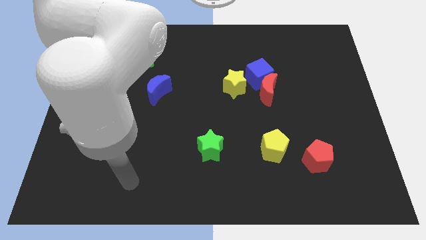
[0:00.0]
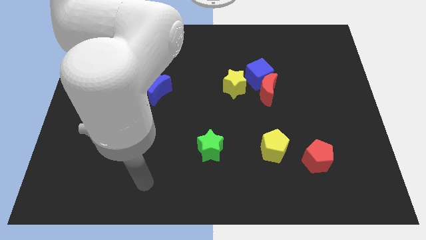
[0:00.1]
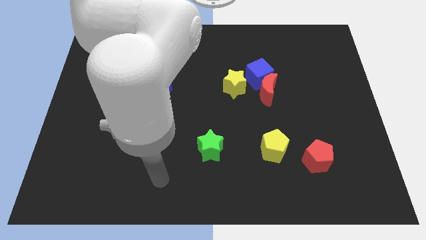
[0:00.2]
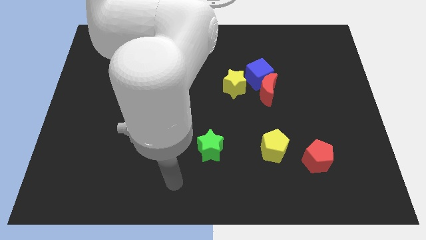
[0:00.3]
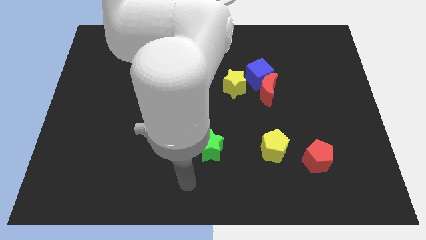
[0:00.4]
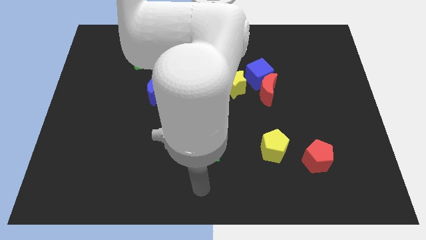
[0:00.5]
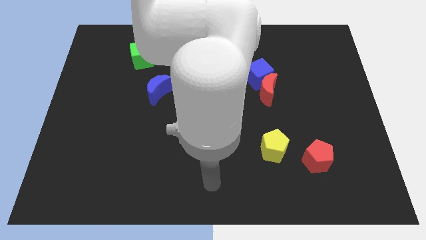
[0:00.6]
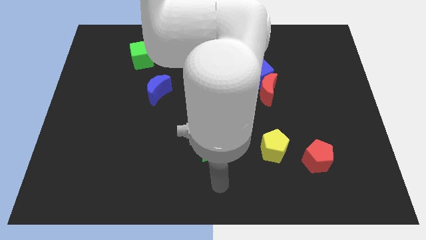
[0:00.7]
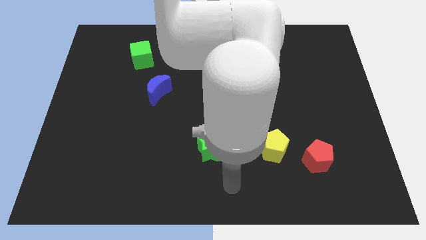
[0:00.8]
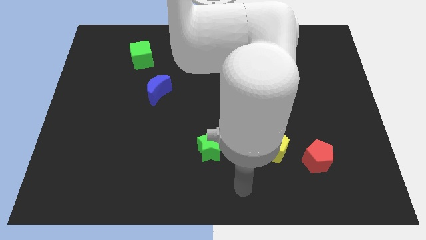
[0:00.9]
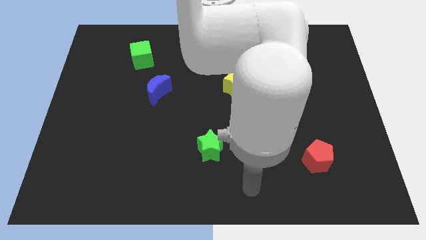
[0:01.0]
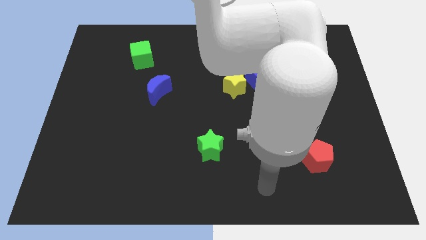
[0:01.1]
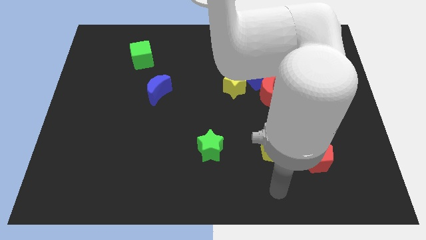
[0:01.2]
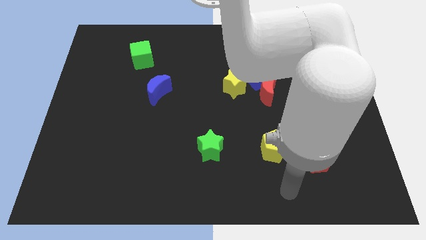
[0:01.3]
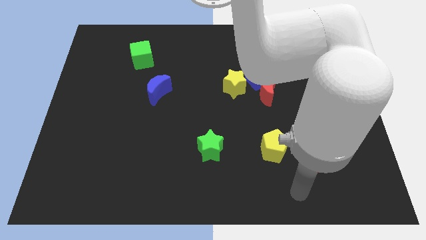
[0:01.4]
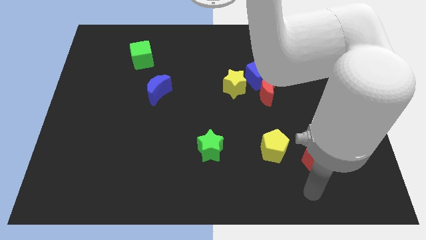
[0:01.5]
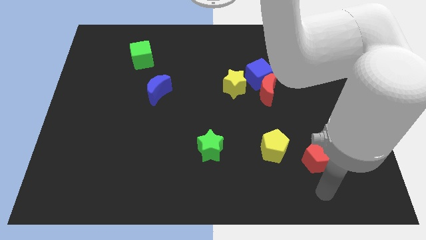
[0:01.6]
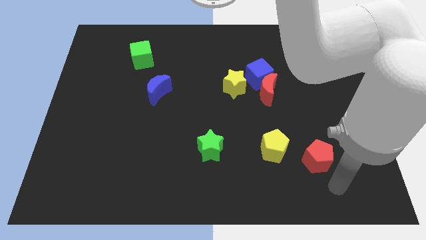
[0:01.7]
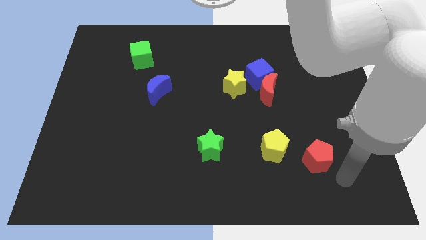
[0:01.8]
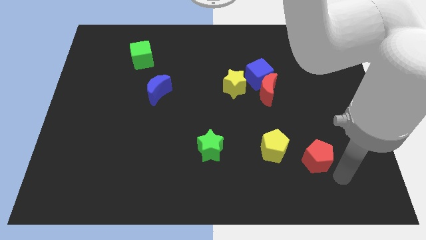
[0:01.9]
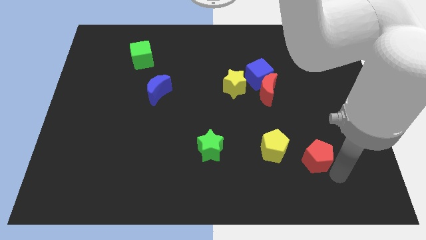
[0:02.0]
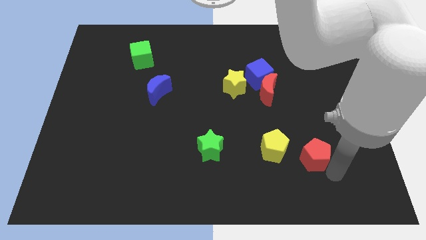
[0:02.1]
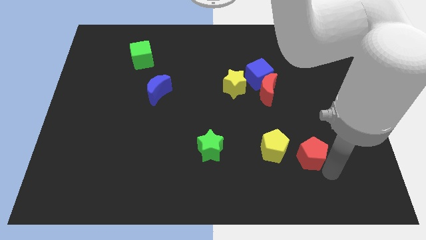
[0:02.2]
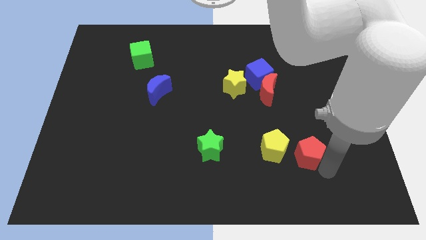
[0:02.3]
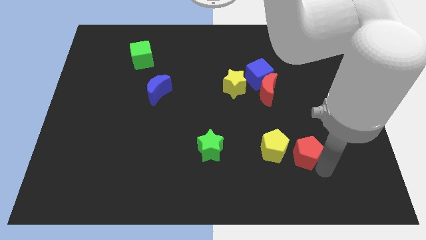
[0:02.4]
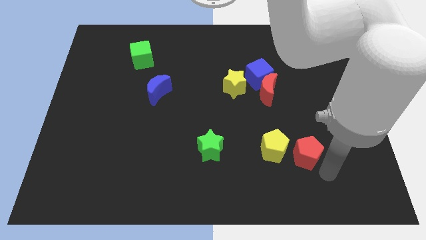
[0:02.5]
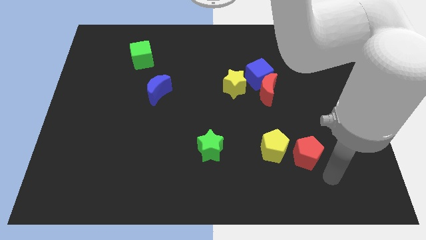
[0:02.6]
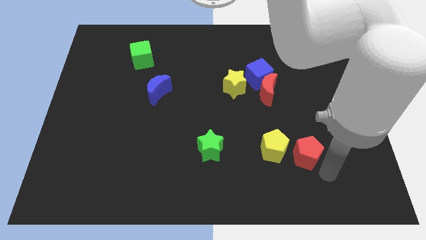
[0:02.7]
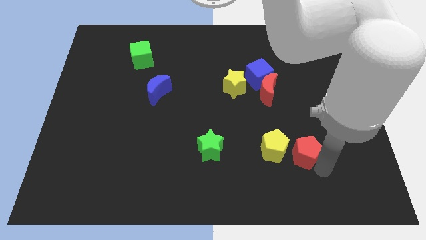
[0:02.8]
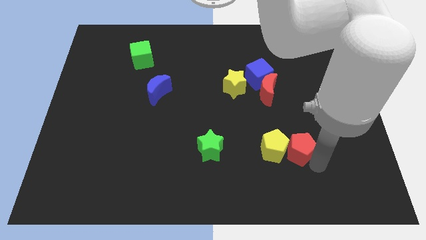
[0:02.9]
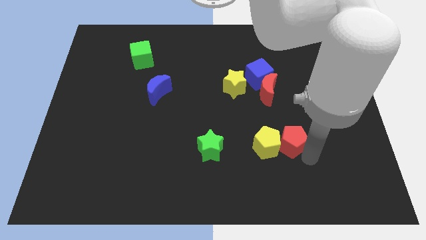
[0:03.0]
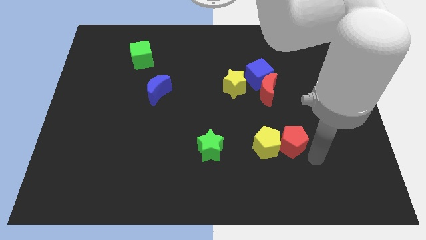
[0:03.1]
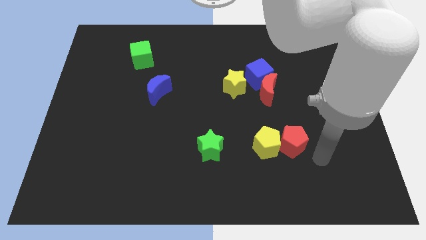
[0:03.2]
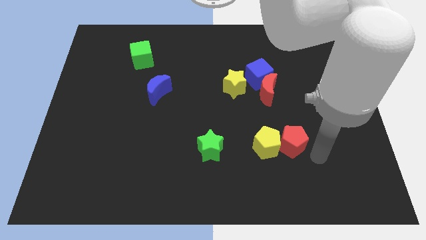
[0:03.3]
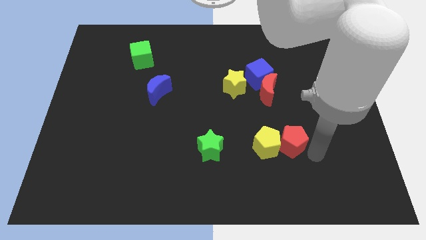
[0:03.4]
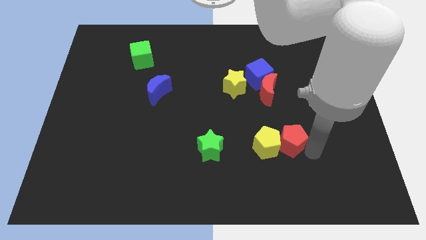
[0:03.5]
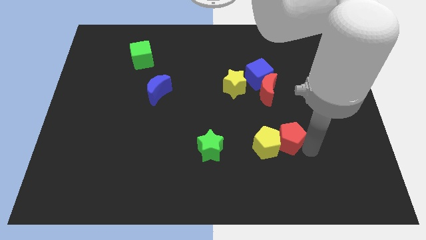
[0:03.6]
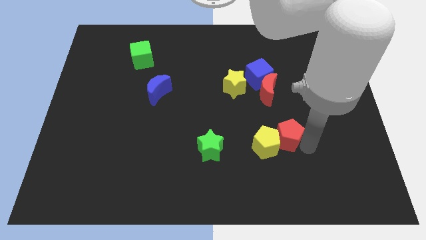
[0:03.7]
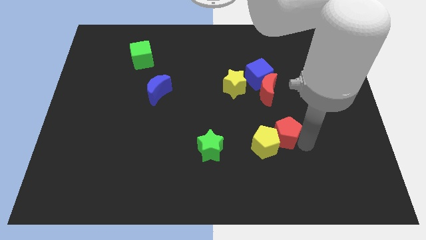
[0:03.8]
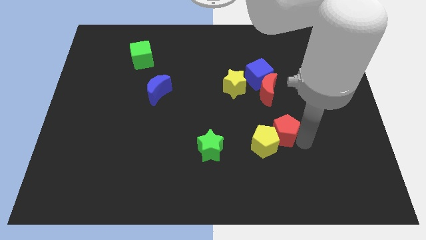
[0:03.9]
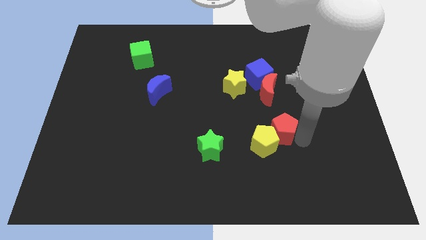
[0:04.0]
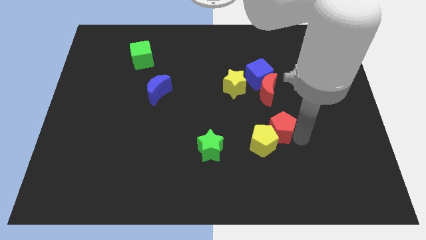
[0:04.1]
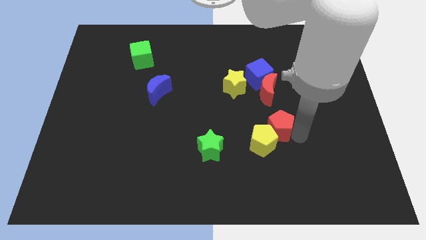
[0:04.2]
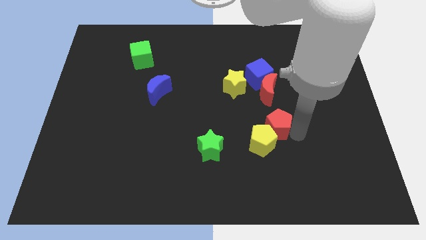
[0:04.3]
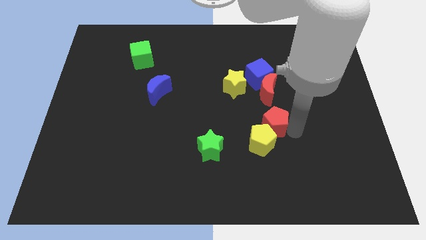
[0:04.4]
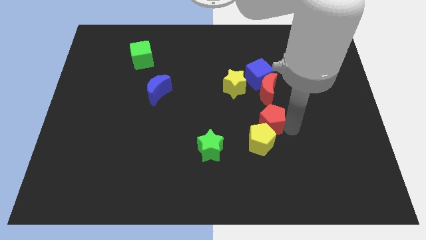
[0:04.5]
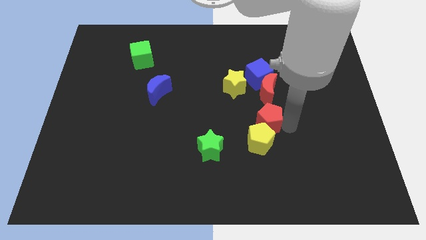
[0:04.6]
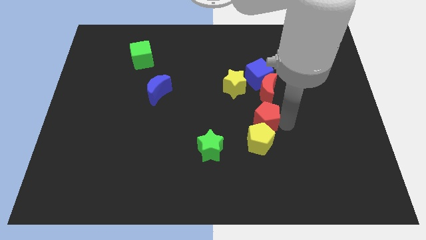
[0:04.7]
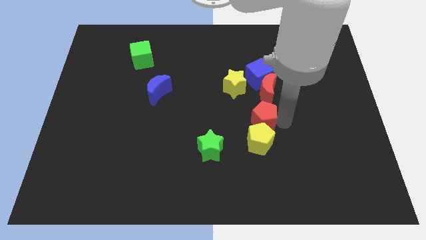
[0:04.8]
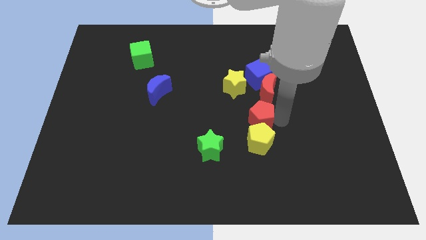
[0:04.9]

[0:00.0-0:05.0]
put the red pentagon to the middle of the board

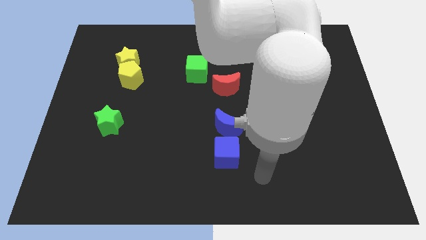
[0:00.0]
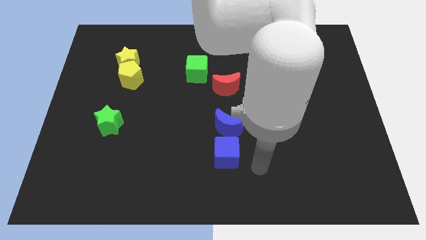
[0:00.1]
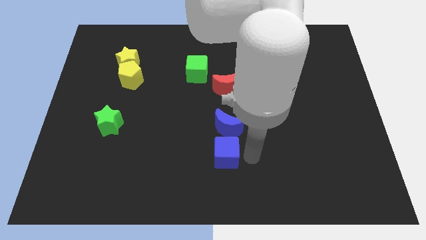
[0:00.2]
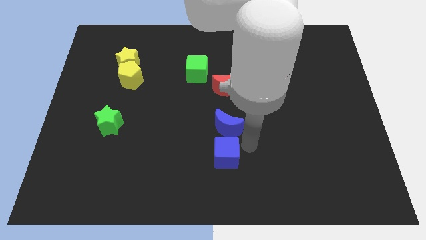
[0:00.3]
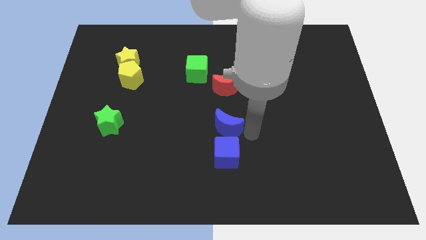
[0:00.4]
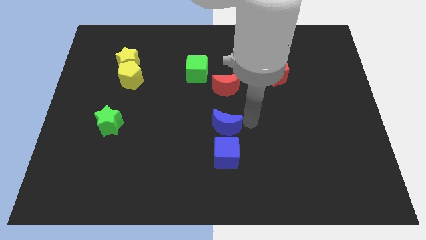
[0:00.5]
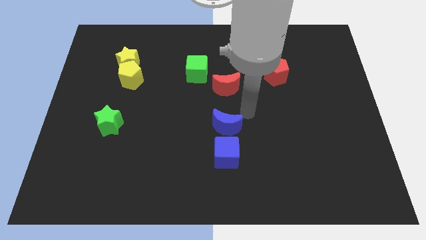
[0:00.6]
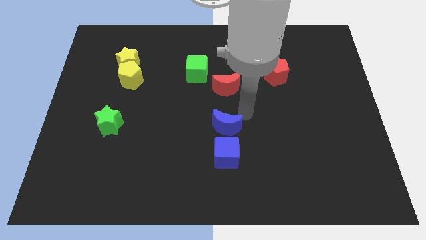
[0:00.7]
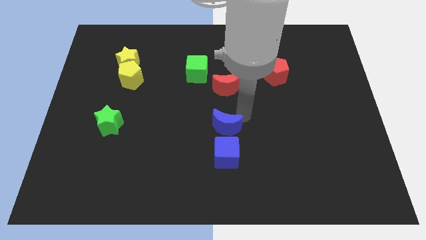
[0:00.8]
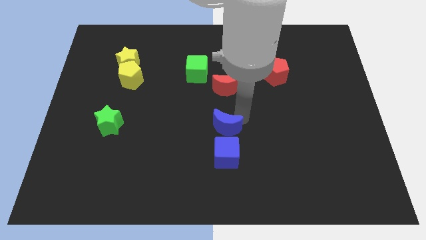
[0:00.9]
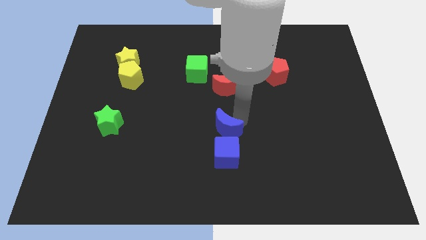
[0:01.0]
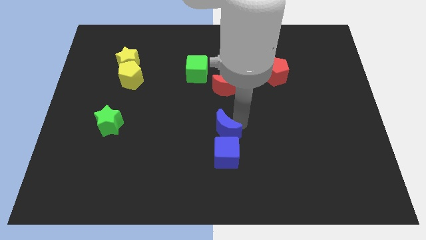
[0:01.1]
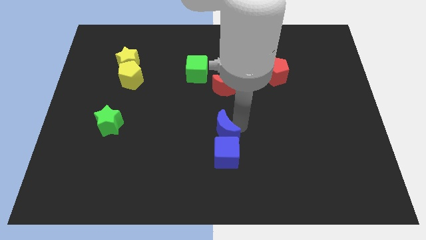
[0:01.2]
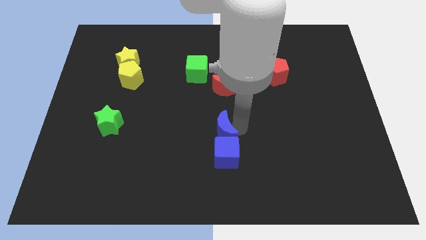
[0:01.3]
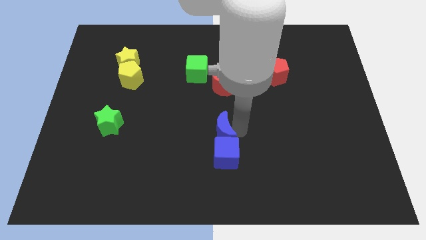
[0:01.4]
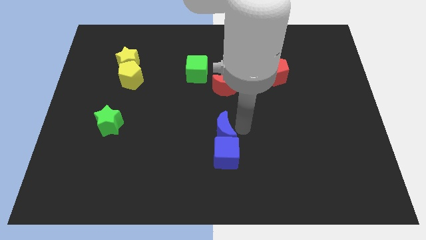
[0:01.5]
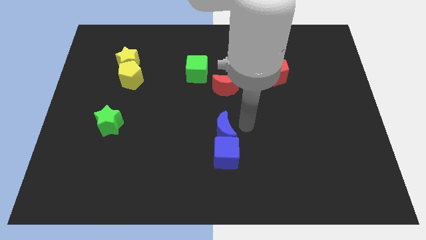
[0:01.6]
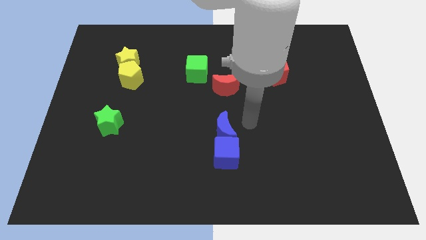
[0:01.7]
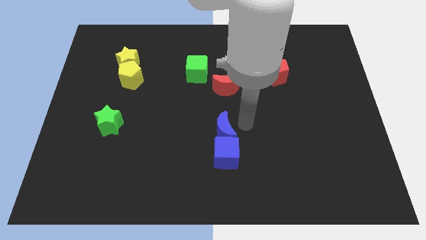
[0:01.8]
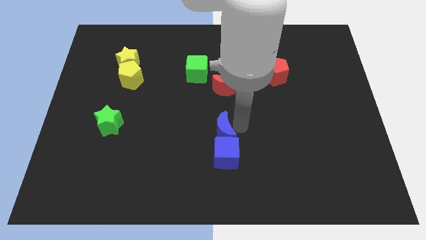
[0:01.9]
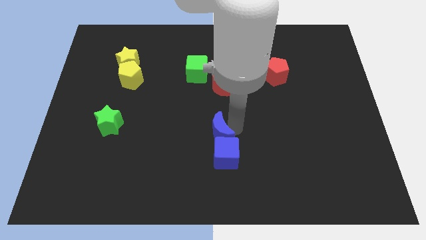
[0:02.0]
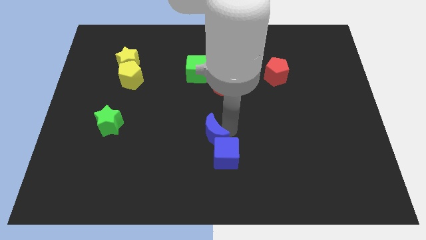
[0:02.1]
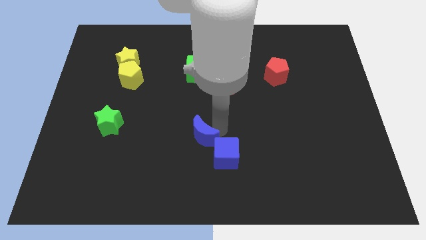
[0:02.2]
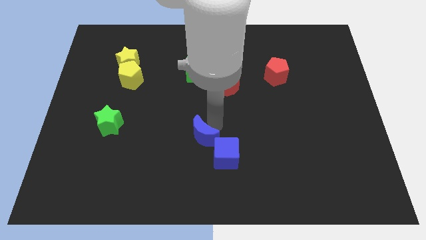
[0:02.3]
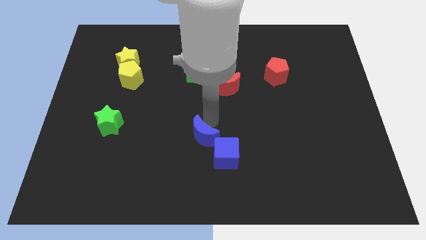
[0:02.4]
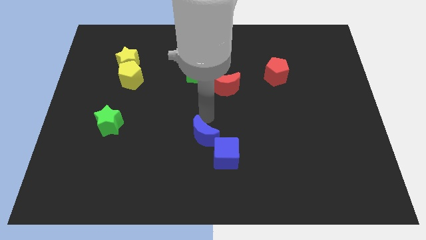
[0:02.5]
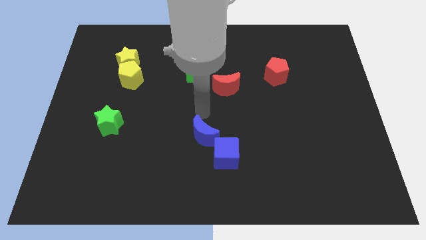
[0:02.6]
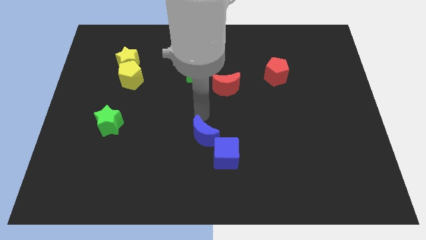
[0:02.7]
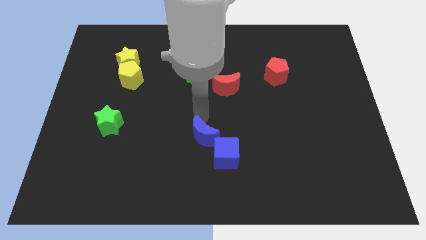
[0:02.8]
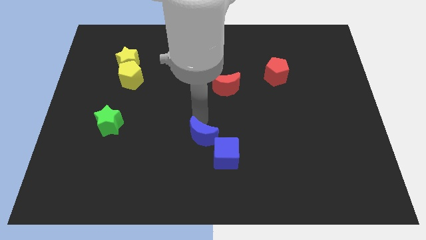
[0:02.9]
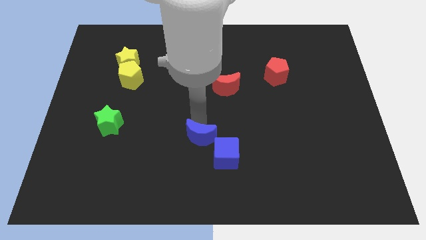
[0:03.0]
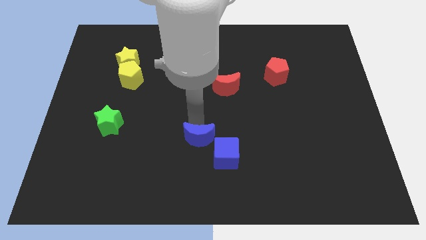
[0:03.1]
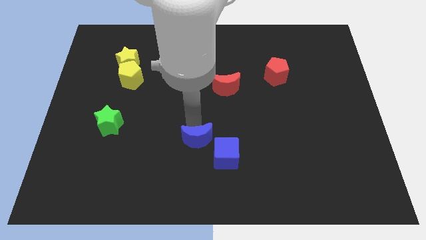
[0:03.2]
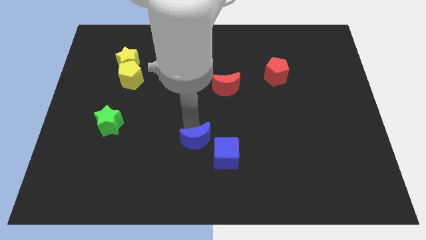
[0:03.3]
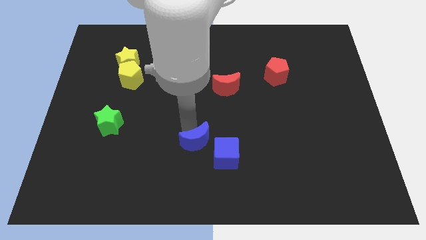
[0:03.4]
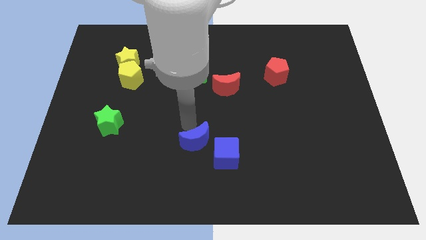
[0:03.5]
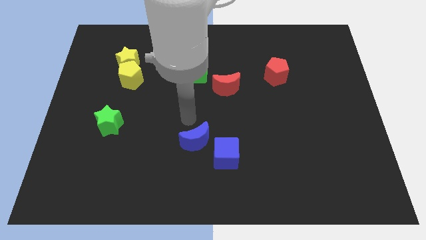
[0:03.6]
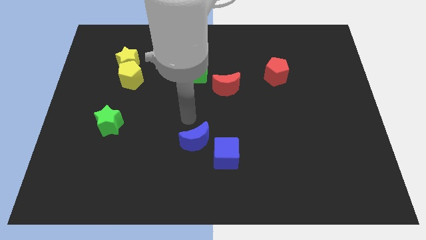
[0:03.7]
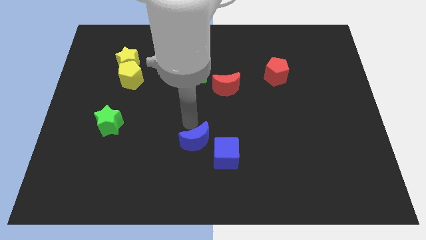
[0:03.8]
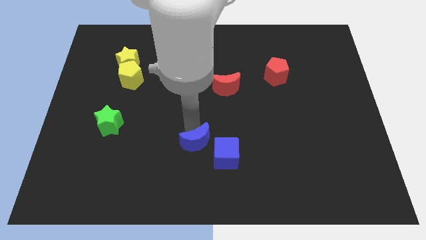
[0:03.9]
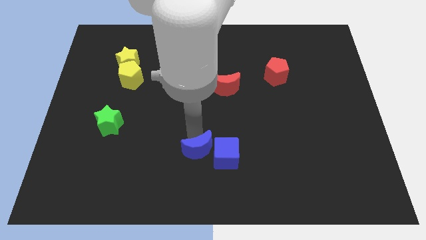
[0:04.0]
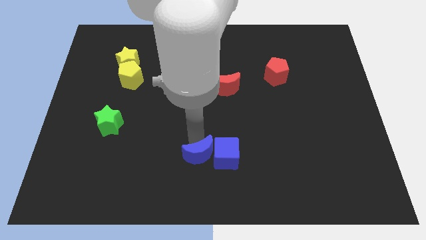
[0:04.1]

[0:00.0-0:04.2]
move the blue moon to the bottom
